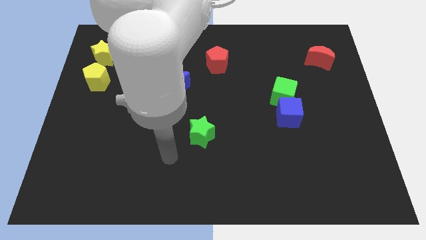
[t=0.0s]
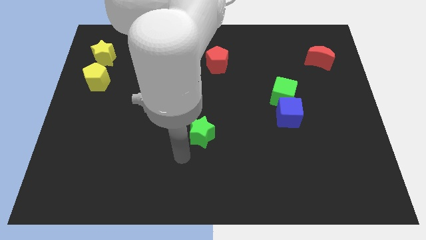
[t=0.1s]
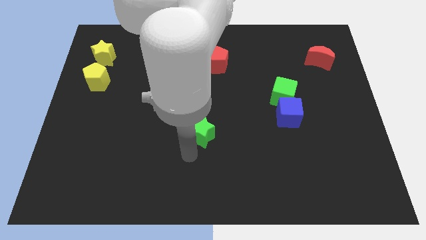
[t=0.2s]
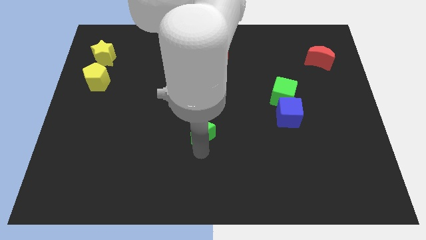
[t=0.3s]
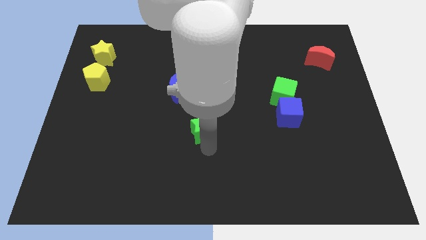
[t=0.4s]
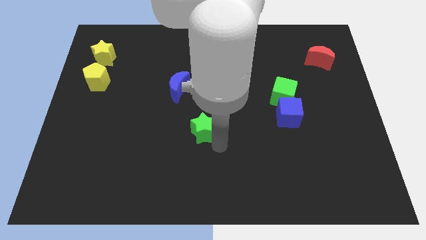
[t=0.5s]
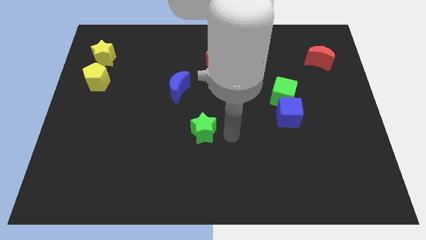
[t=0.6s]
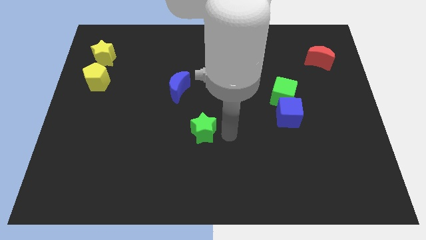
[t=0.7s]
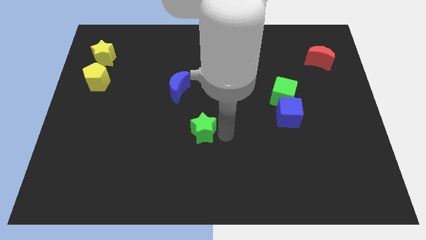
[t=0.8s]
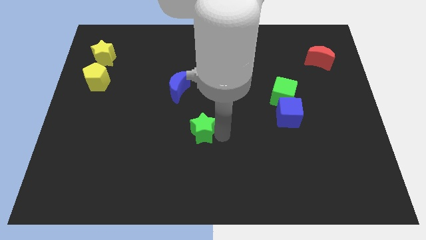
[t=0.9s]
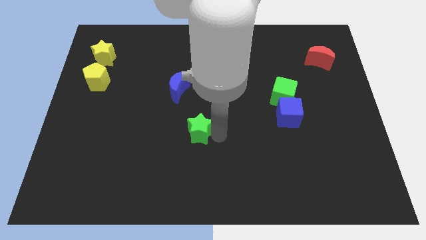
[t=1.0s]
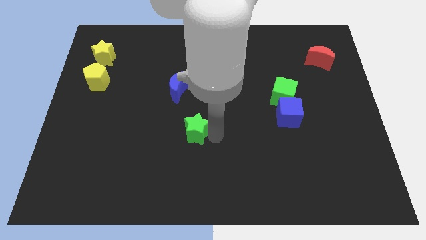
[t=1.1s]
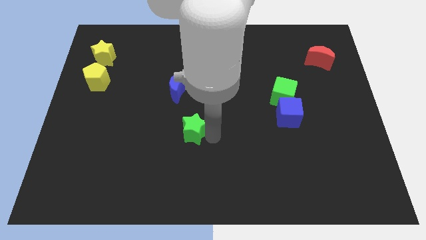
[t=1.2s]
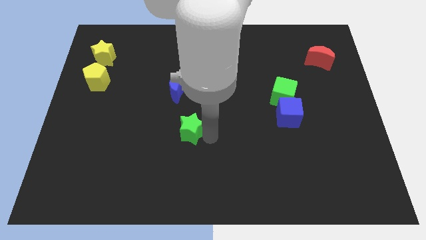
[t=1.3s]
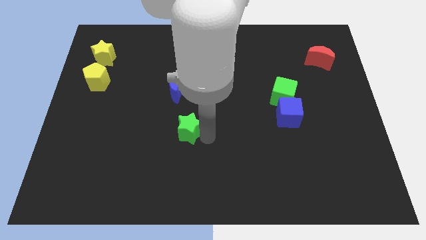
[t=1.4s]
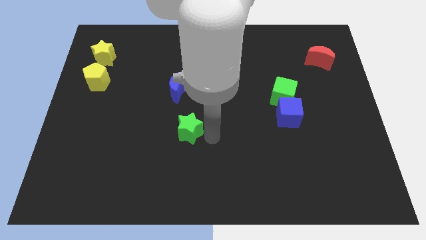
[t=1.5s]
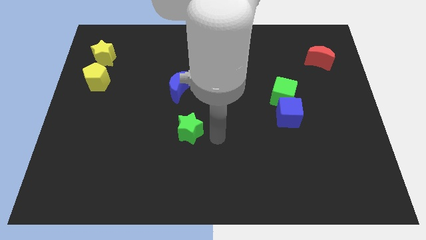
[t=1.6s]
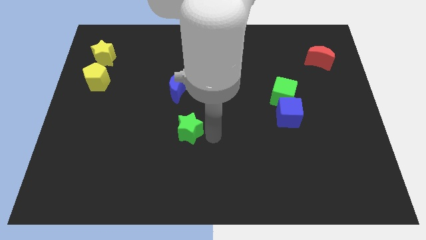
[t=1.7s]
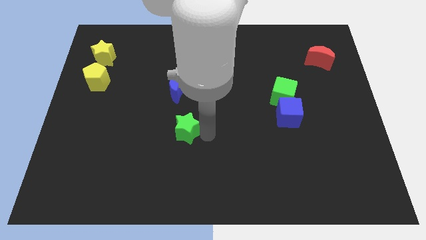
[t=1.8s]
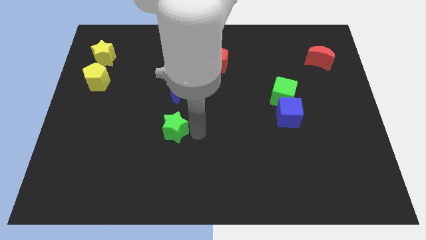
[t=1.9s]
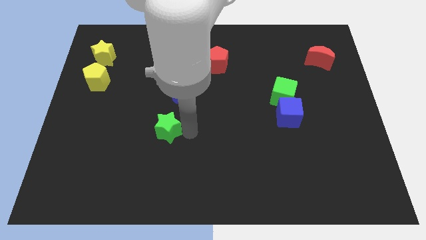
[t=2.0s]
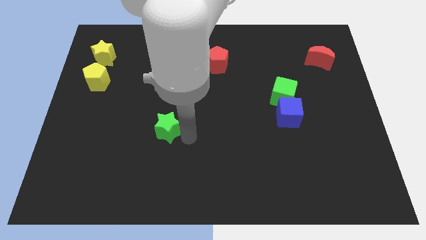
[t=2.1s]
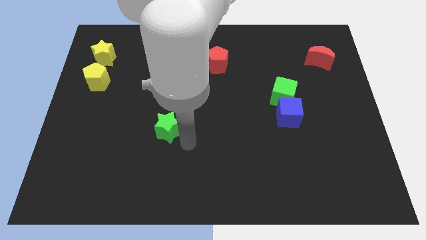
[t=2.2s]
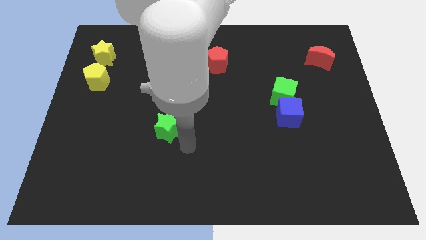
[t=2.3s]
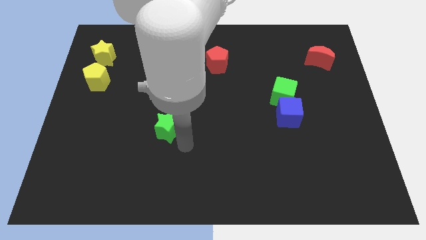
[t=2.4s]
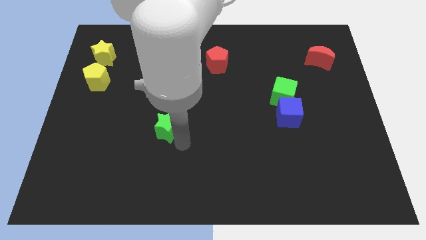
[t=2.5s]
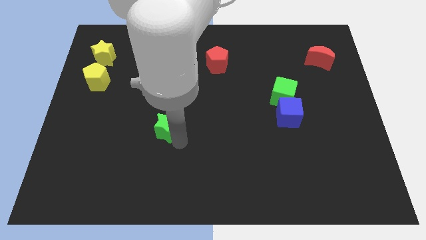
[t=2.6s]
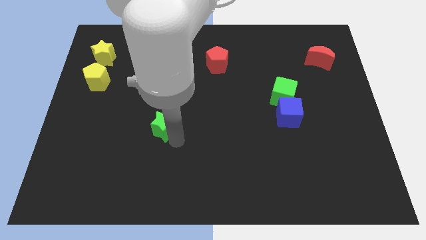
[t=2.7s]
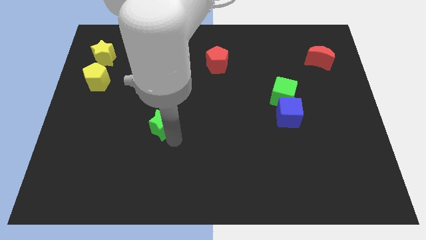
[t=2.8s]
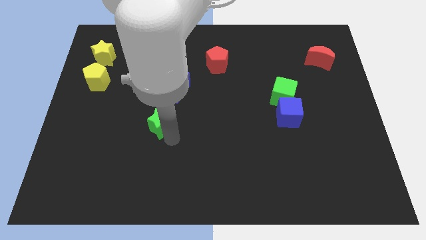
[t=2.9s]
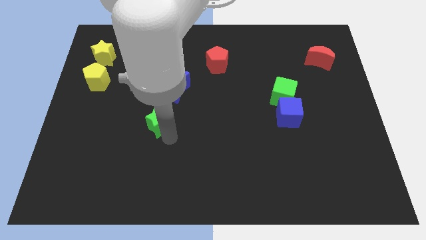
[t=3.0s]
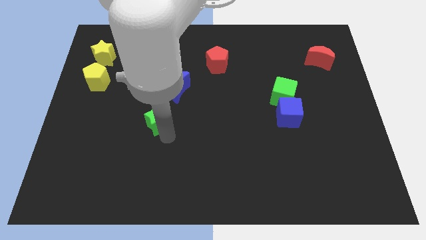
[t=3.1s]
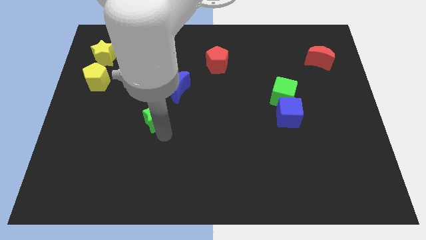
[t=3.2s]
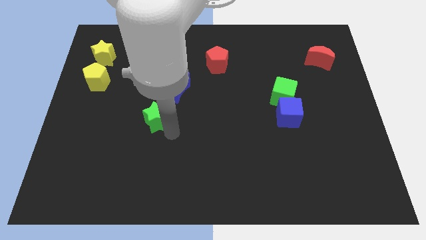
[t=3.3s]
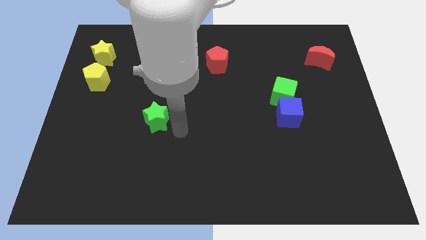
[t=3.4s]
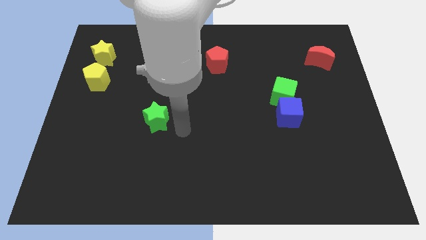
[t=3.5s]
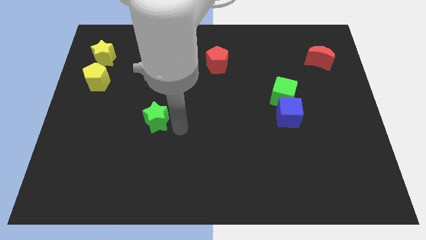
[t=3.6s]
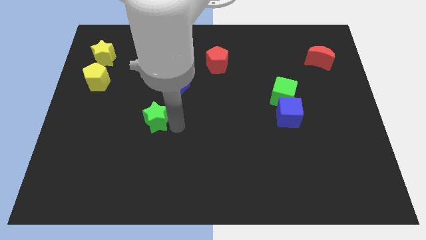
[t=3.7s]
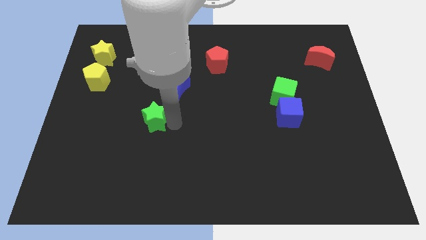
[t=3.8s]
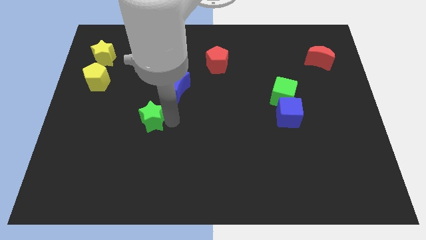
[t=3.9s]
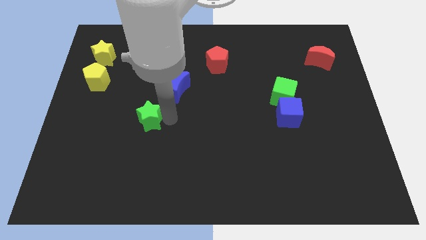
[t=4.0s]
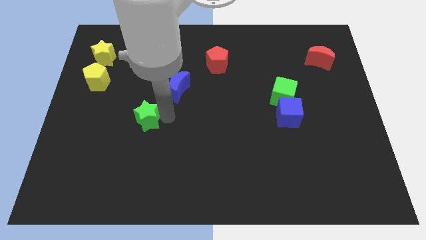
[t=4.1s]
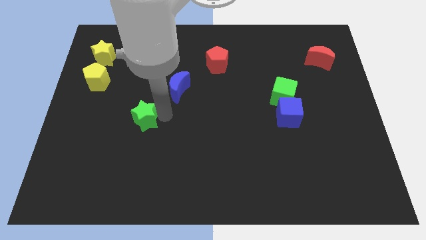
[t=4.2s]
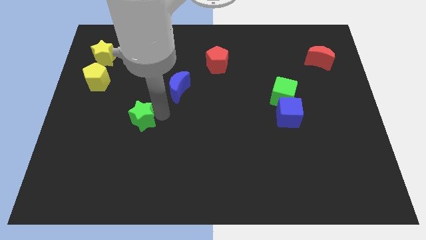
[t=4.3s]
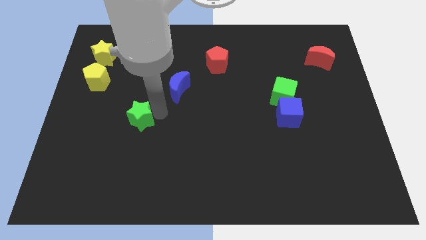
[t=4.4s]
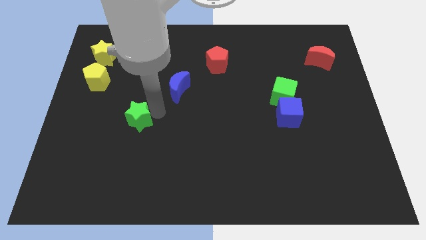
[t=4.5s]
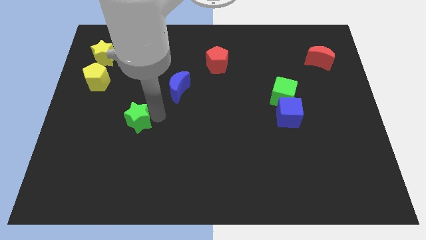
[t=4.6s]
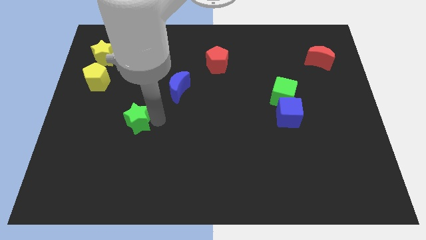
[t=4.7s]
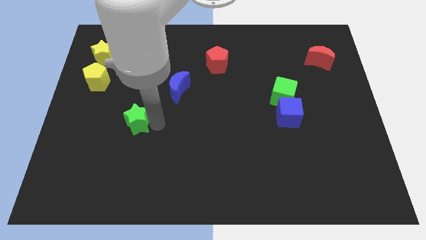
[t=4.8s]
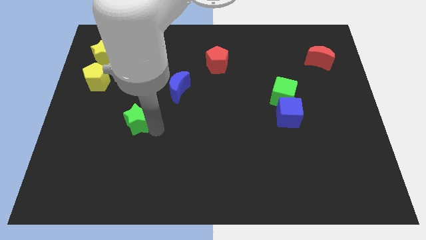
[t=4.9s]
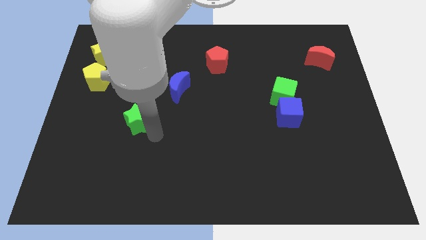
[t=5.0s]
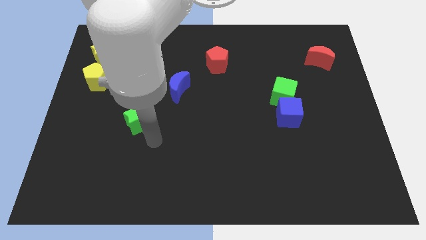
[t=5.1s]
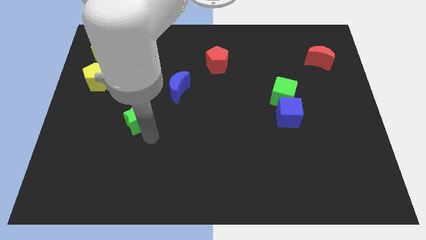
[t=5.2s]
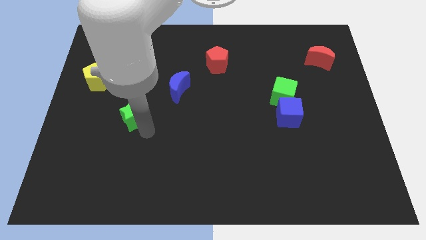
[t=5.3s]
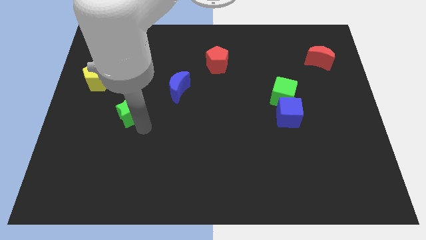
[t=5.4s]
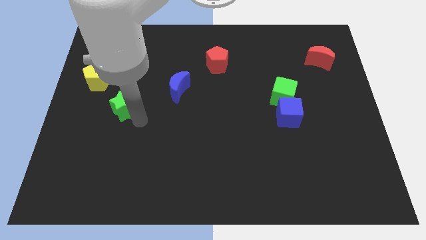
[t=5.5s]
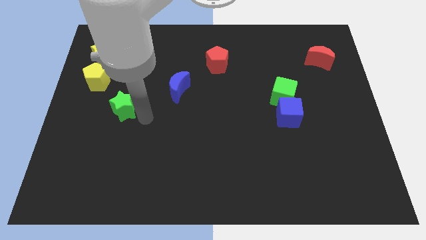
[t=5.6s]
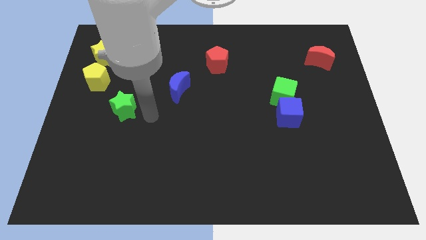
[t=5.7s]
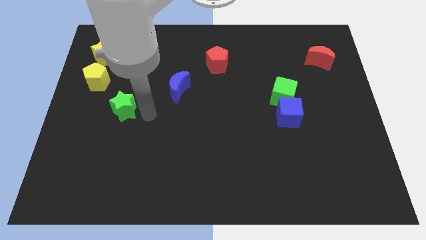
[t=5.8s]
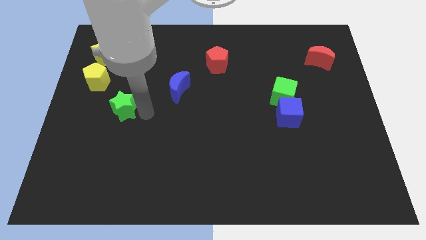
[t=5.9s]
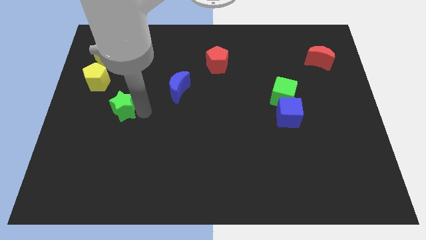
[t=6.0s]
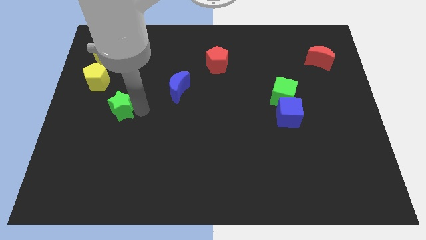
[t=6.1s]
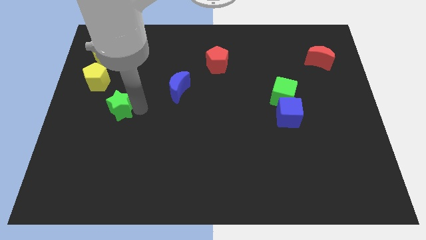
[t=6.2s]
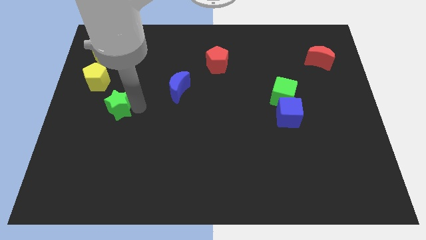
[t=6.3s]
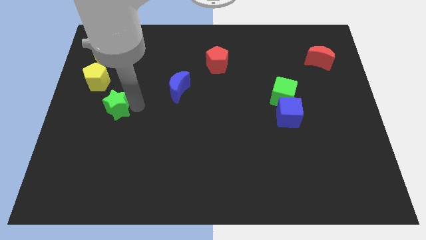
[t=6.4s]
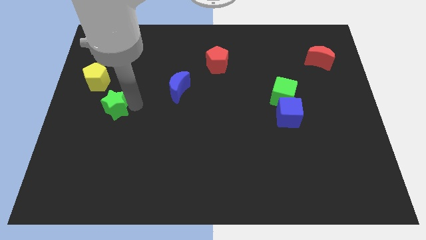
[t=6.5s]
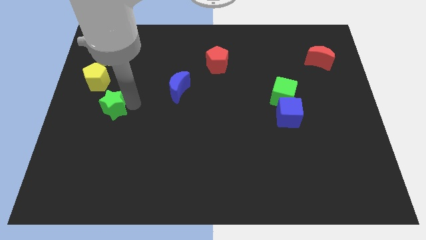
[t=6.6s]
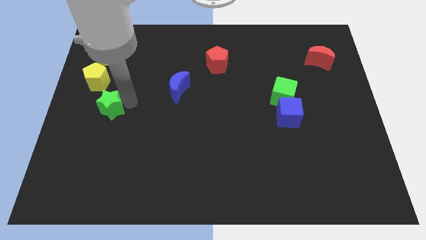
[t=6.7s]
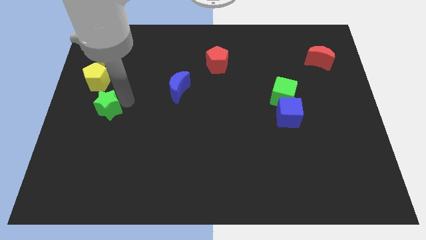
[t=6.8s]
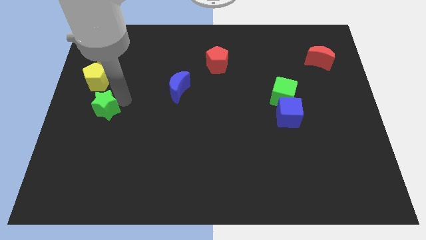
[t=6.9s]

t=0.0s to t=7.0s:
move the green star to the center left
